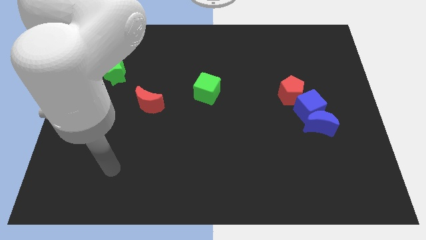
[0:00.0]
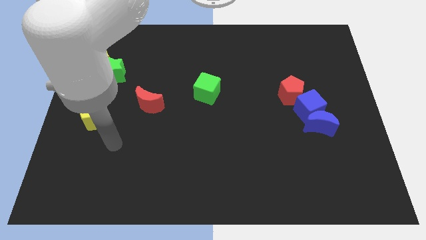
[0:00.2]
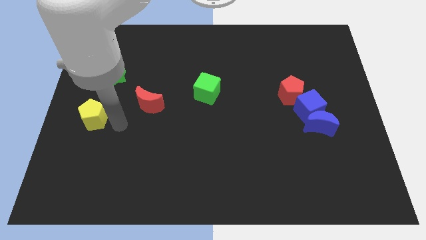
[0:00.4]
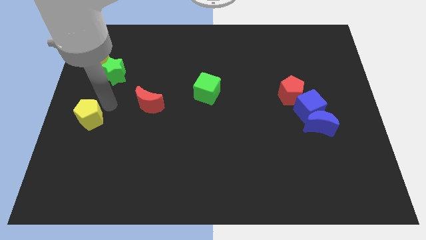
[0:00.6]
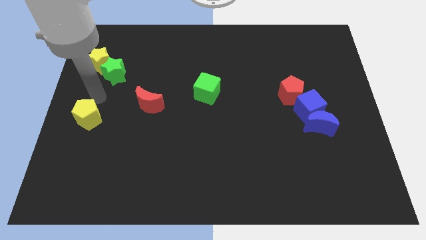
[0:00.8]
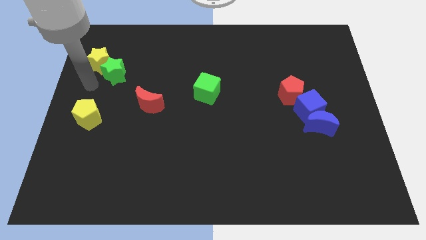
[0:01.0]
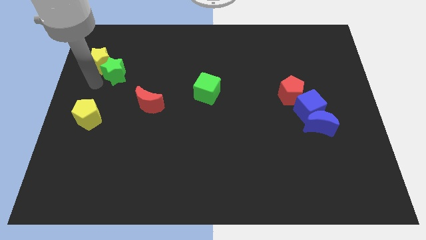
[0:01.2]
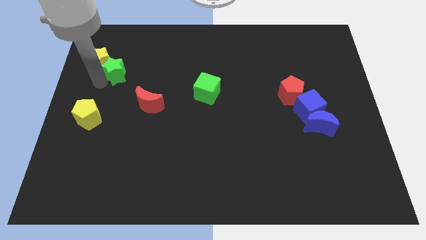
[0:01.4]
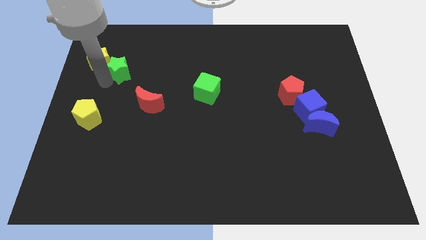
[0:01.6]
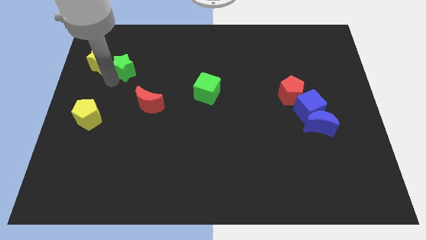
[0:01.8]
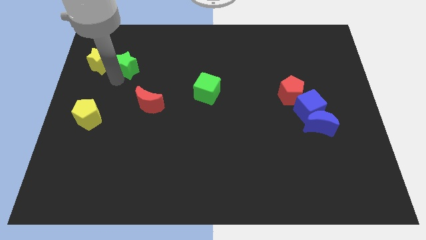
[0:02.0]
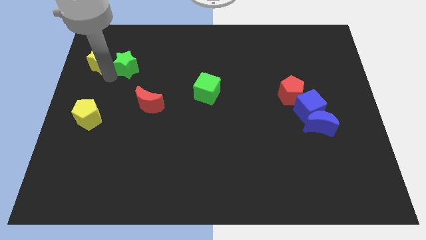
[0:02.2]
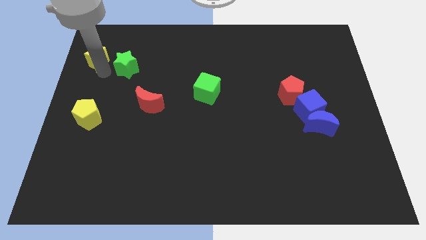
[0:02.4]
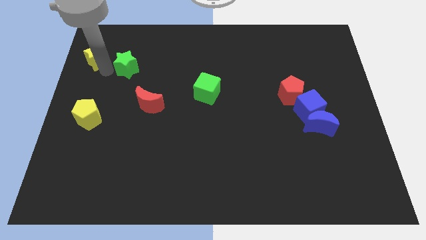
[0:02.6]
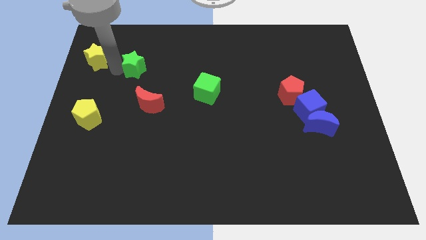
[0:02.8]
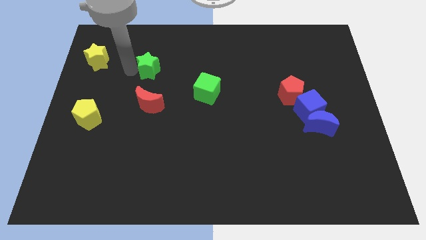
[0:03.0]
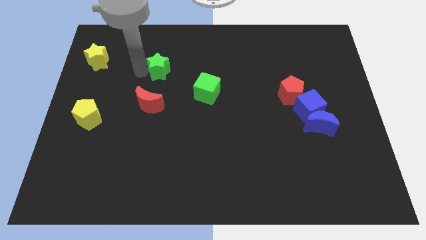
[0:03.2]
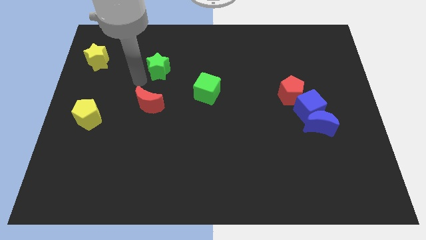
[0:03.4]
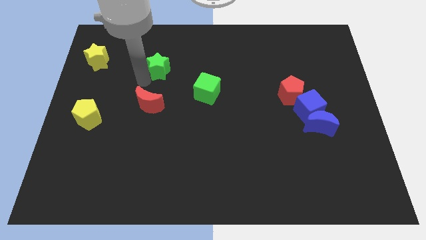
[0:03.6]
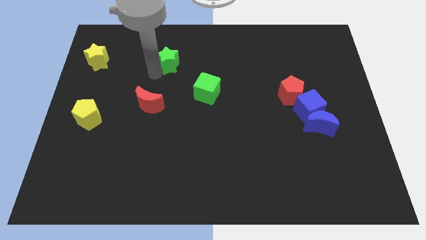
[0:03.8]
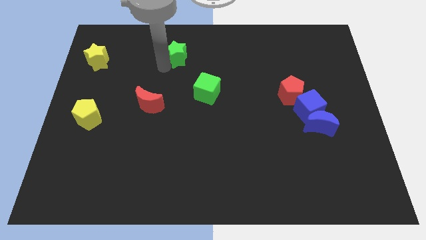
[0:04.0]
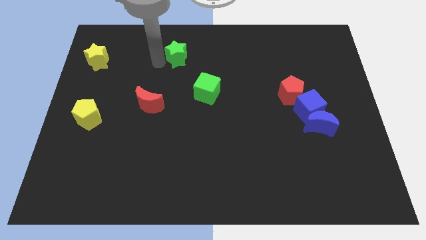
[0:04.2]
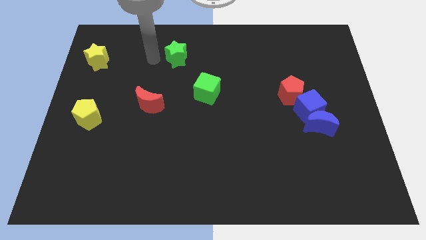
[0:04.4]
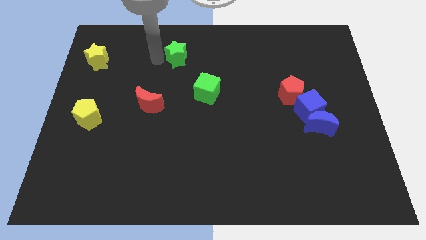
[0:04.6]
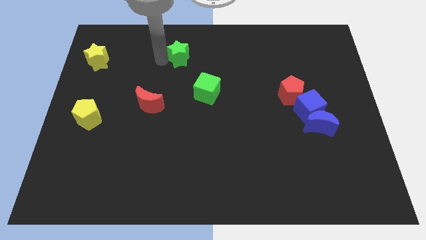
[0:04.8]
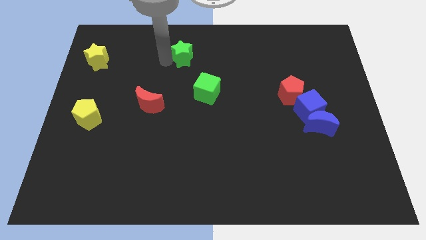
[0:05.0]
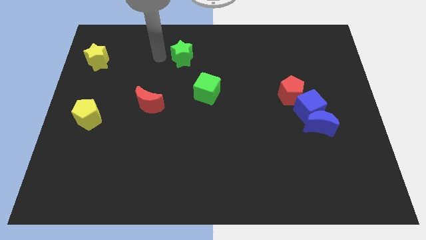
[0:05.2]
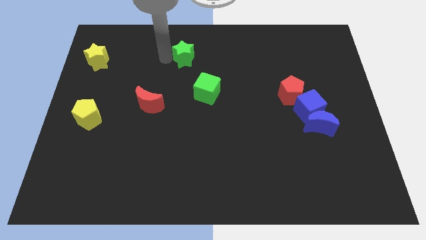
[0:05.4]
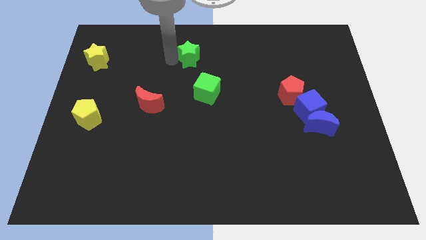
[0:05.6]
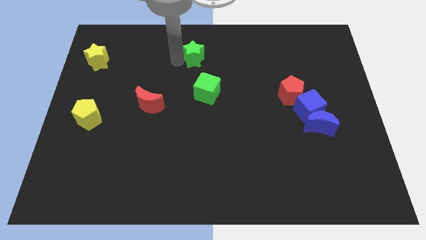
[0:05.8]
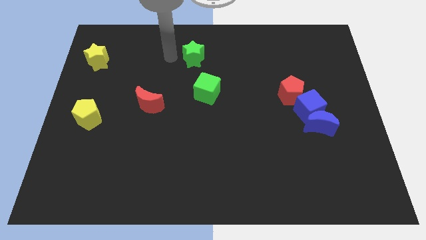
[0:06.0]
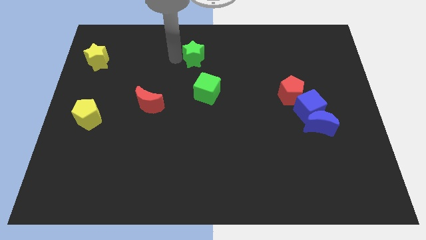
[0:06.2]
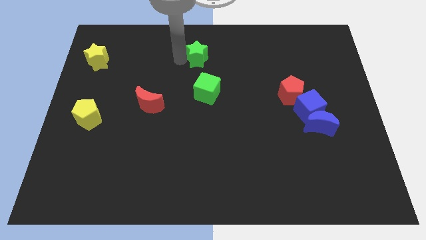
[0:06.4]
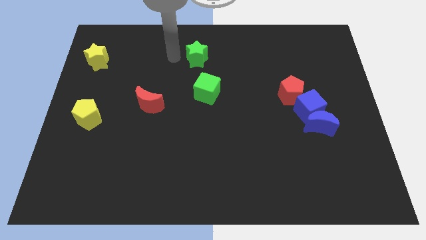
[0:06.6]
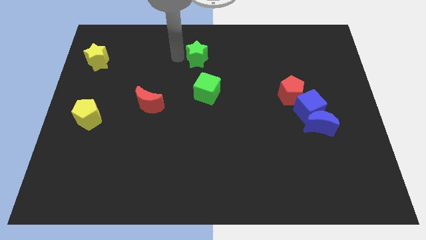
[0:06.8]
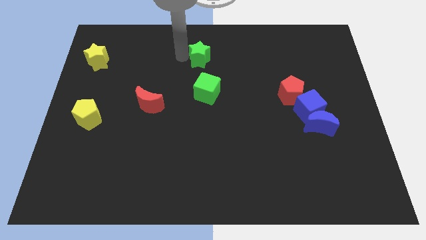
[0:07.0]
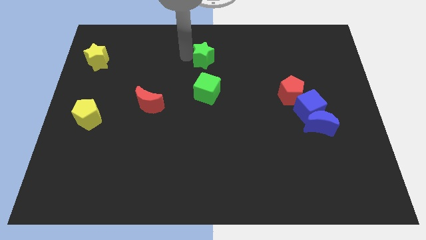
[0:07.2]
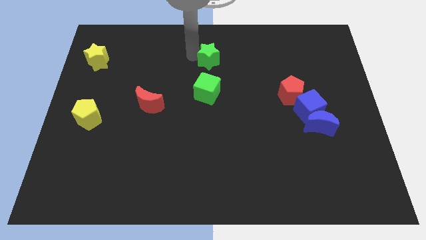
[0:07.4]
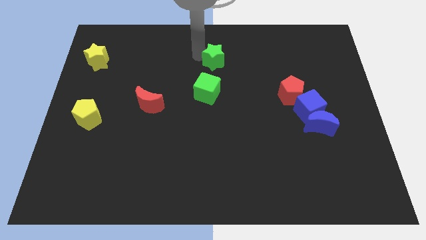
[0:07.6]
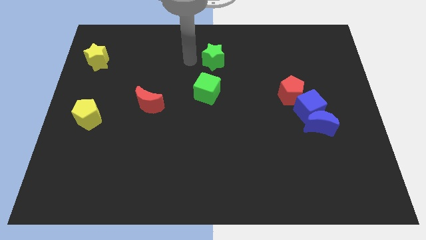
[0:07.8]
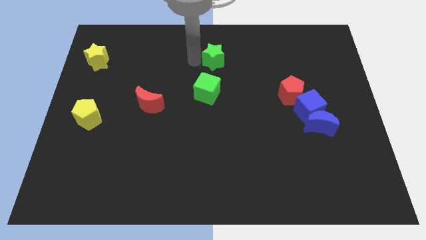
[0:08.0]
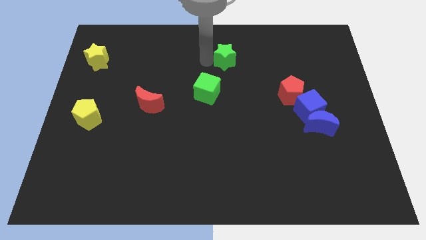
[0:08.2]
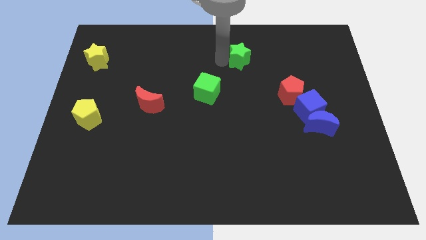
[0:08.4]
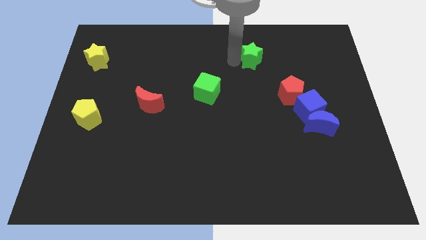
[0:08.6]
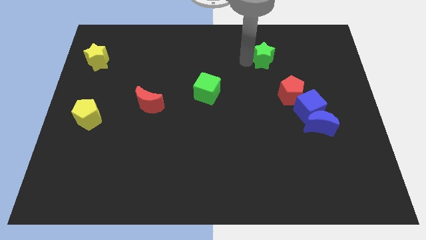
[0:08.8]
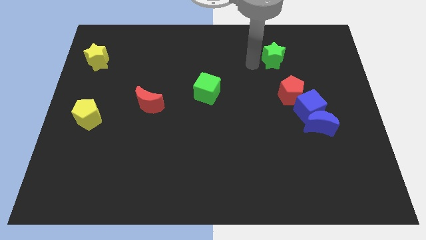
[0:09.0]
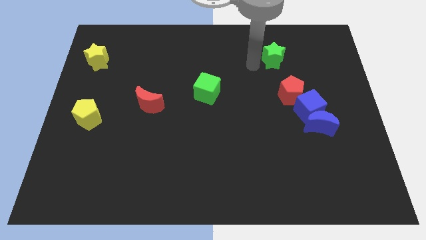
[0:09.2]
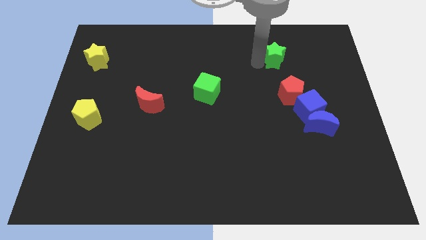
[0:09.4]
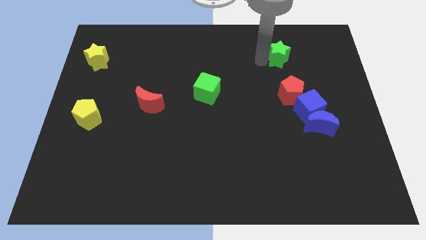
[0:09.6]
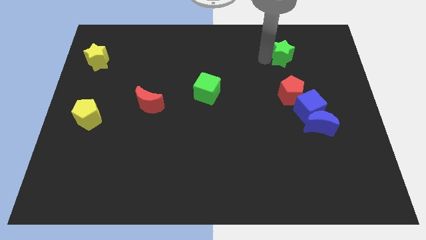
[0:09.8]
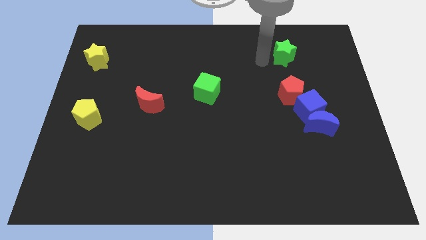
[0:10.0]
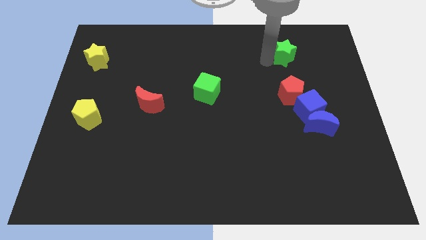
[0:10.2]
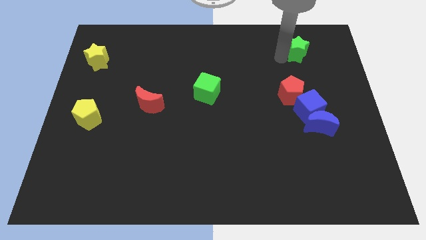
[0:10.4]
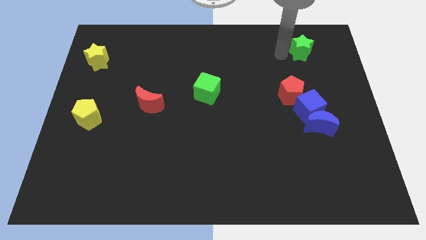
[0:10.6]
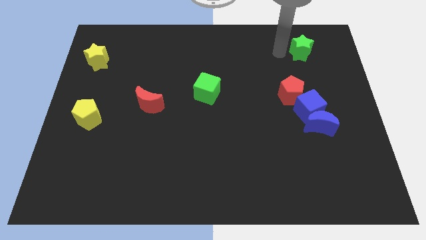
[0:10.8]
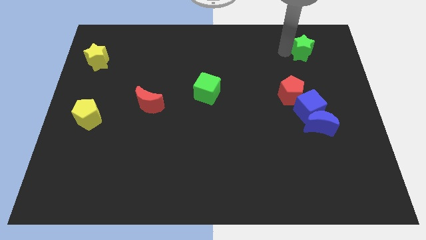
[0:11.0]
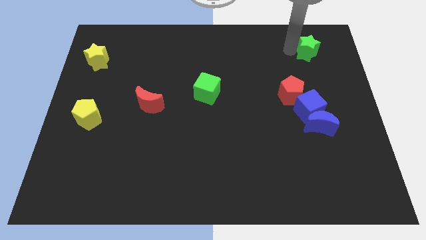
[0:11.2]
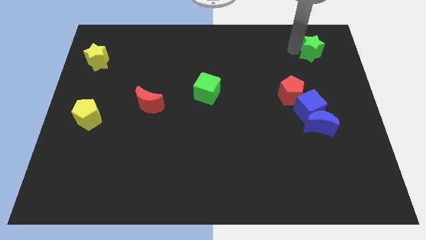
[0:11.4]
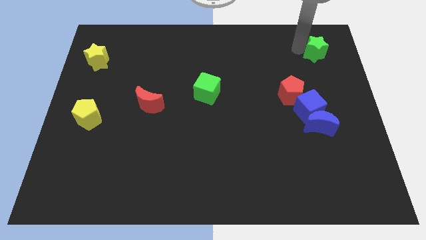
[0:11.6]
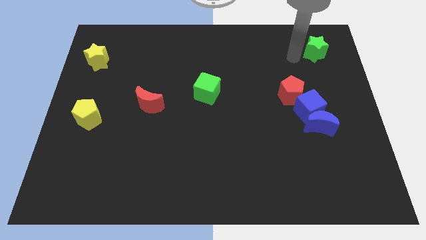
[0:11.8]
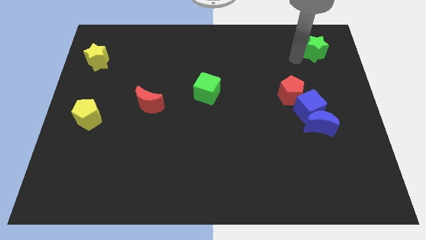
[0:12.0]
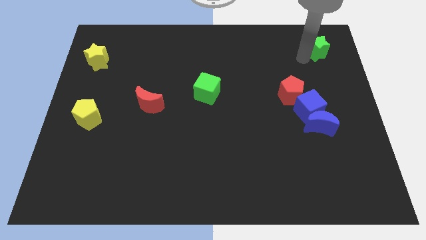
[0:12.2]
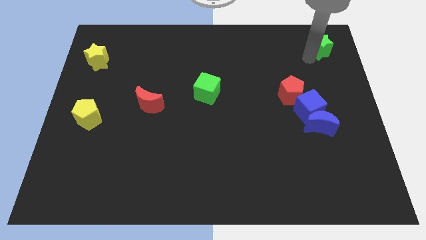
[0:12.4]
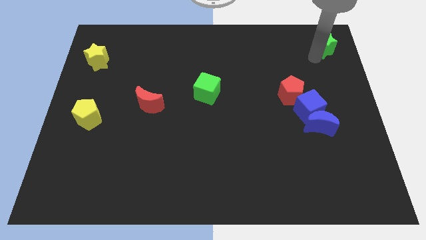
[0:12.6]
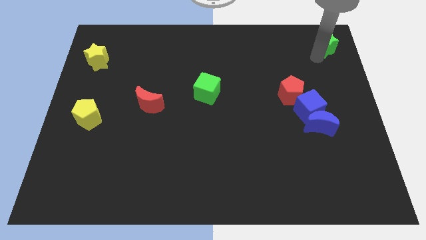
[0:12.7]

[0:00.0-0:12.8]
push the green star to the top right
